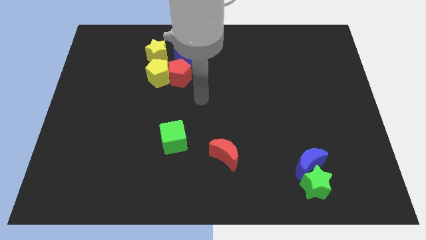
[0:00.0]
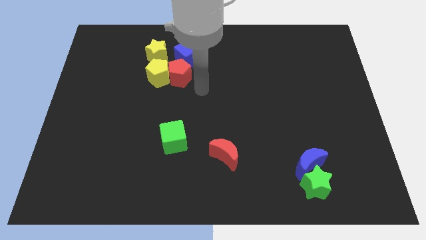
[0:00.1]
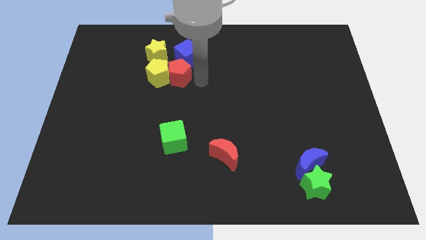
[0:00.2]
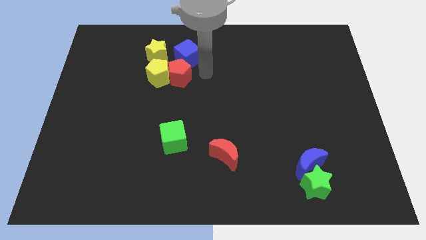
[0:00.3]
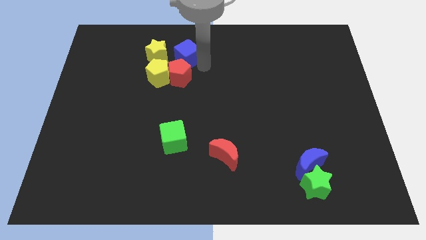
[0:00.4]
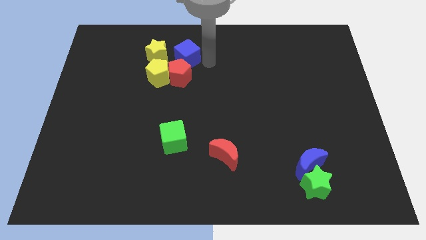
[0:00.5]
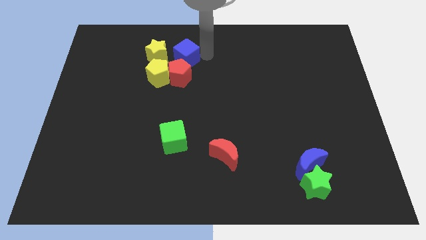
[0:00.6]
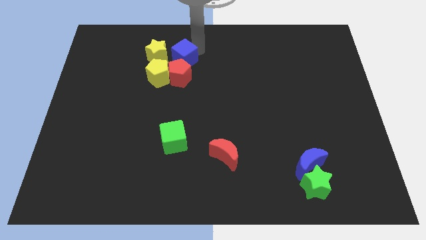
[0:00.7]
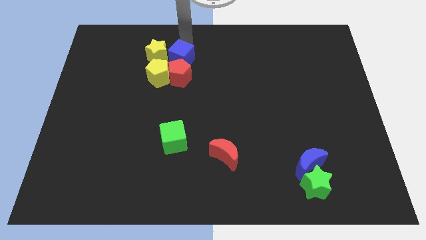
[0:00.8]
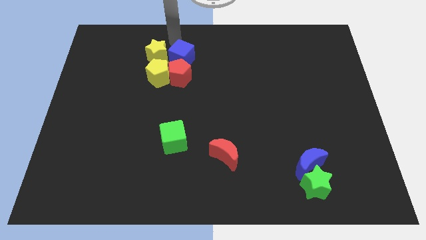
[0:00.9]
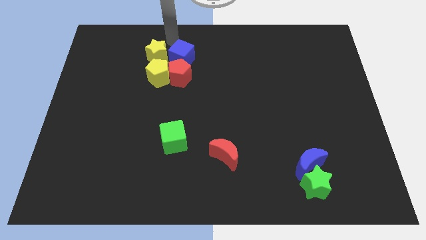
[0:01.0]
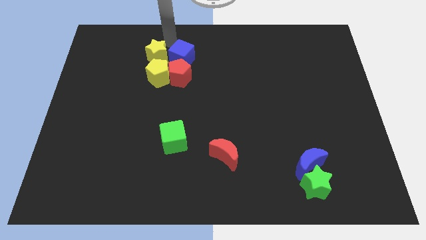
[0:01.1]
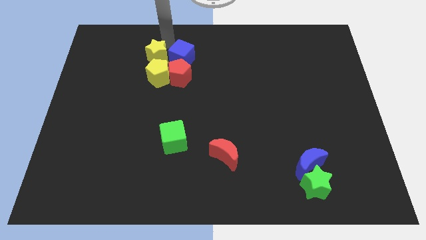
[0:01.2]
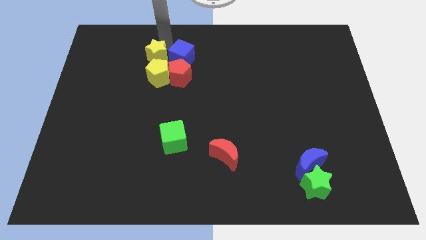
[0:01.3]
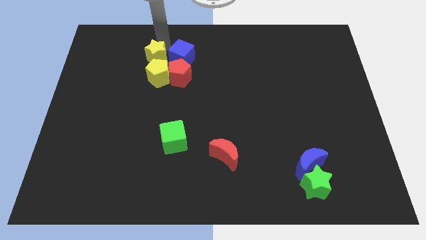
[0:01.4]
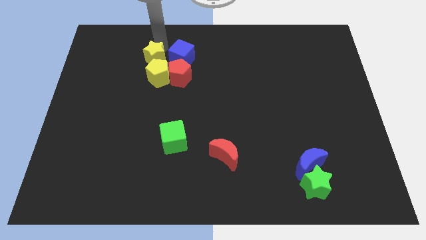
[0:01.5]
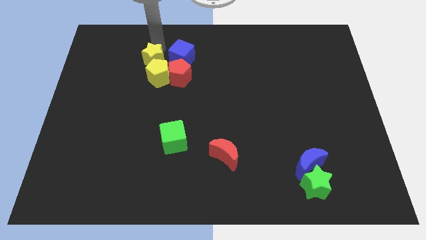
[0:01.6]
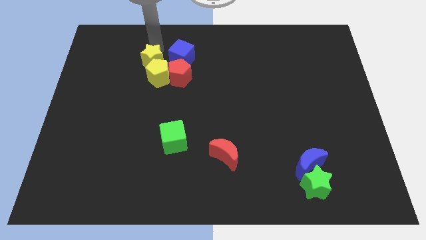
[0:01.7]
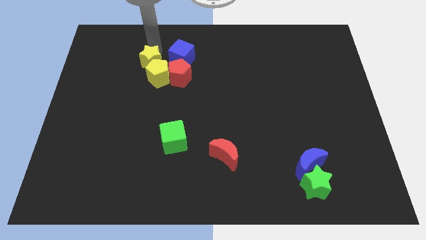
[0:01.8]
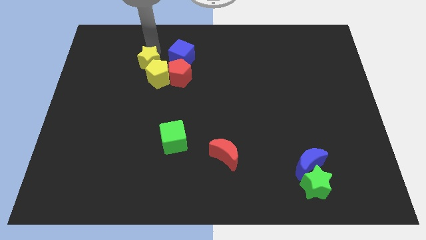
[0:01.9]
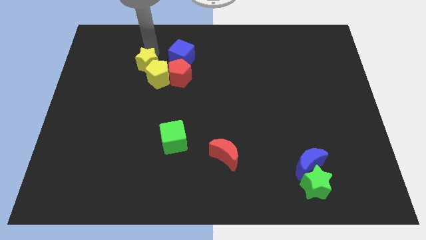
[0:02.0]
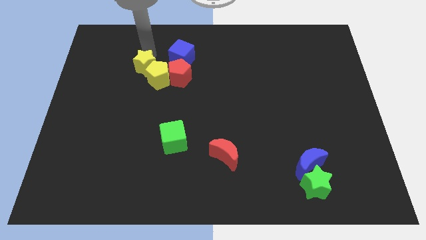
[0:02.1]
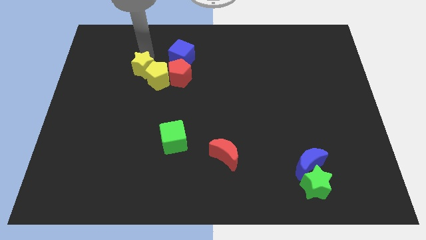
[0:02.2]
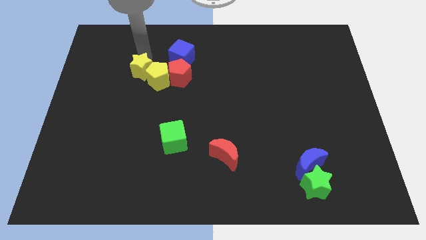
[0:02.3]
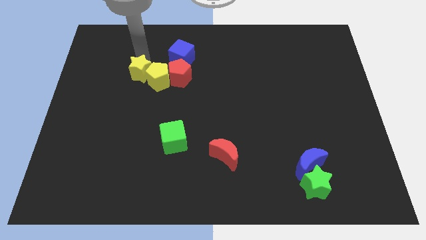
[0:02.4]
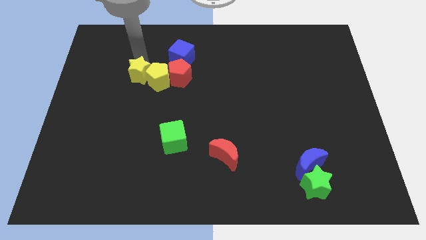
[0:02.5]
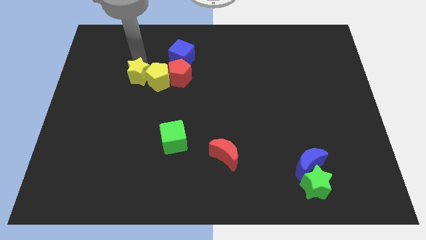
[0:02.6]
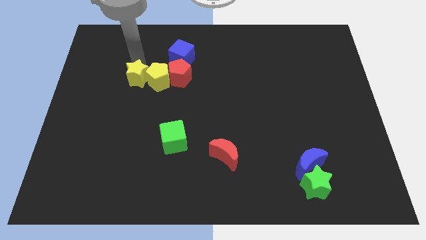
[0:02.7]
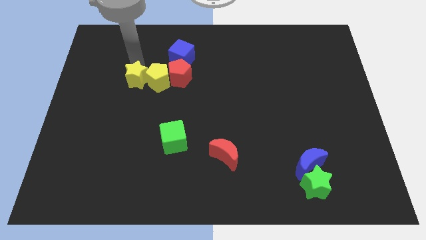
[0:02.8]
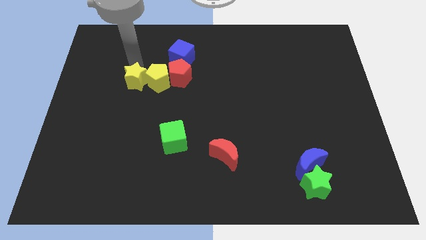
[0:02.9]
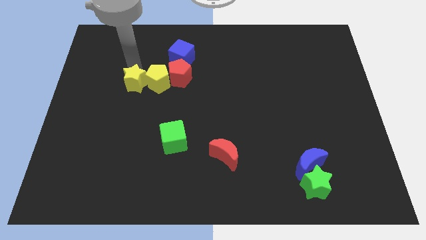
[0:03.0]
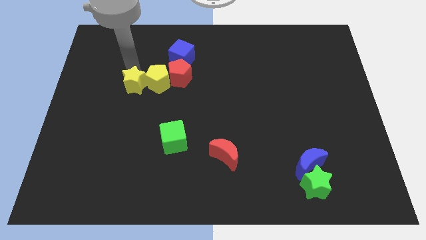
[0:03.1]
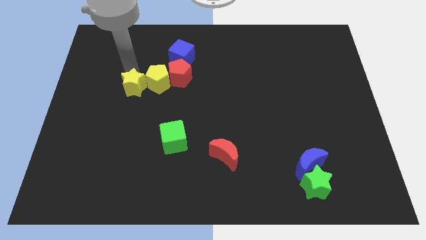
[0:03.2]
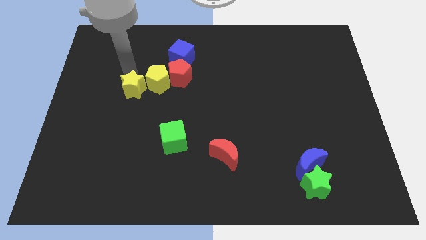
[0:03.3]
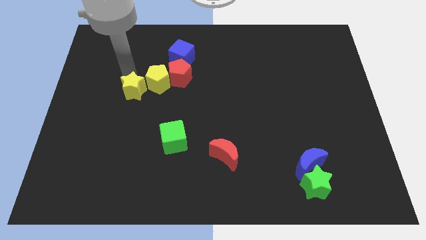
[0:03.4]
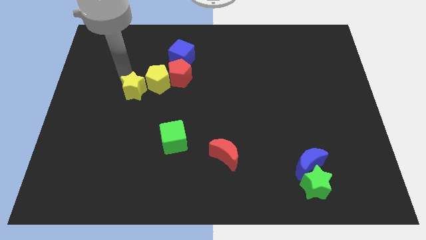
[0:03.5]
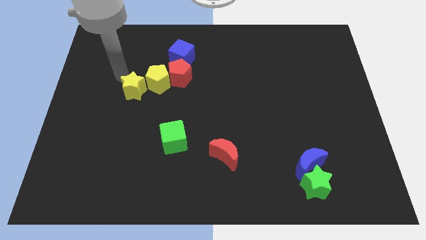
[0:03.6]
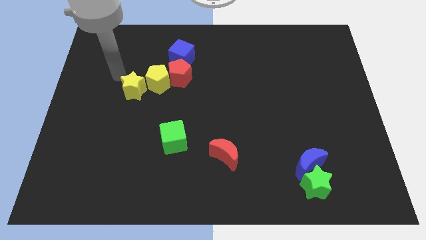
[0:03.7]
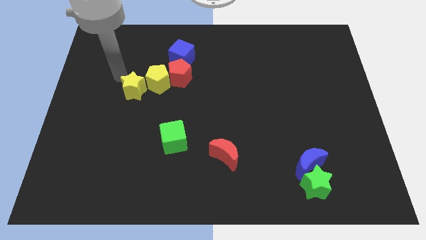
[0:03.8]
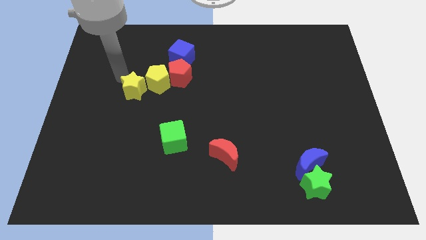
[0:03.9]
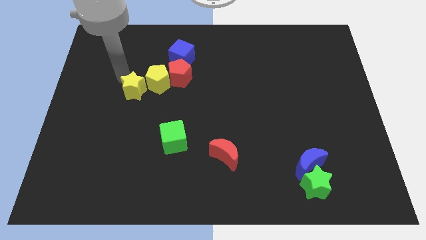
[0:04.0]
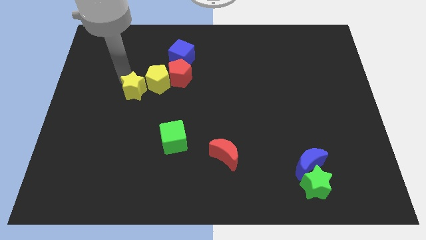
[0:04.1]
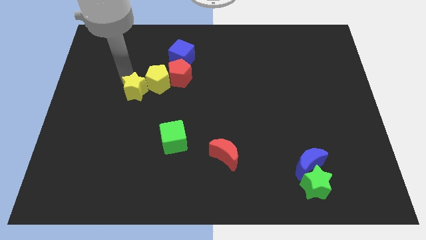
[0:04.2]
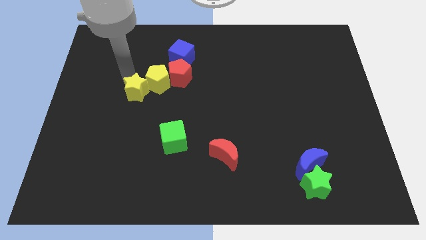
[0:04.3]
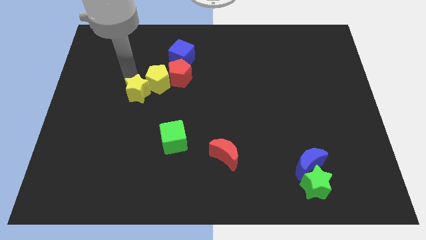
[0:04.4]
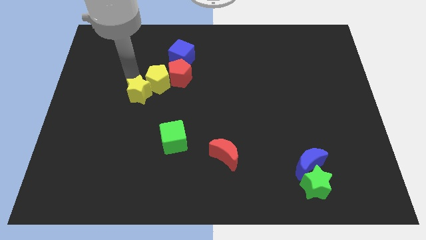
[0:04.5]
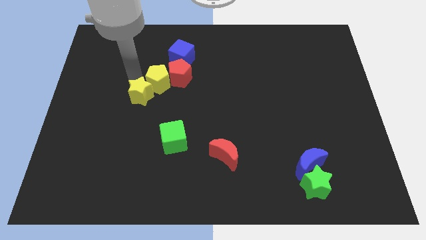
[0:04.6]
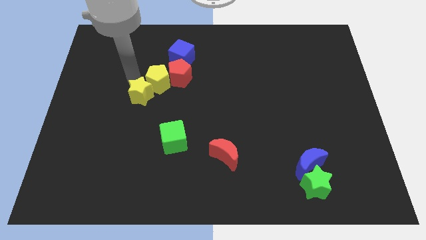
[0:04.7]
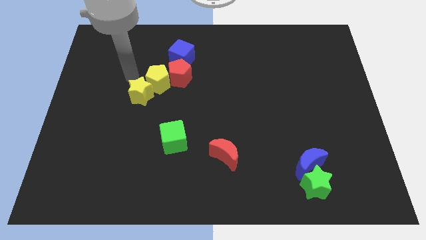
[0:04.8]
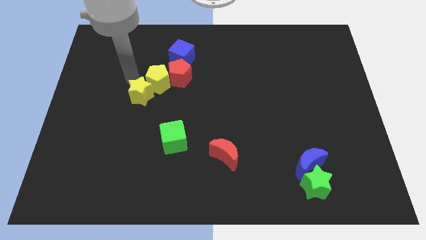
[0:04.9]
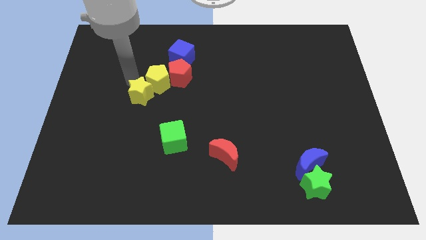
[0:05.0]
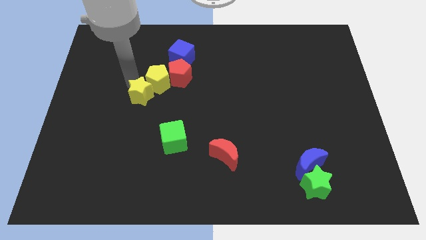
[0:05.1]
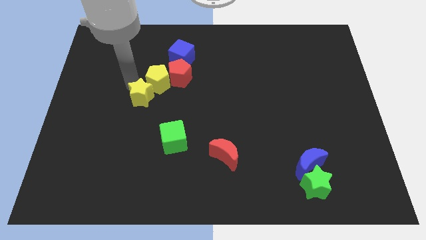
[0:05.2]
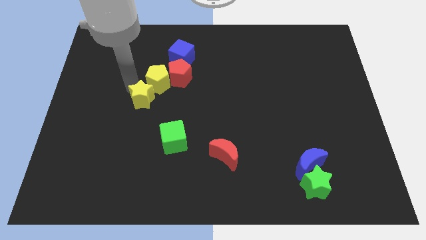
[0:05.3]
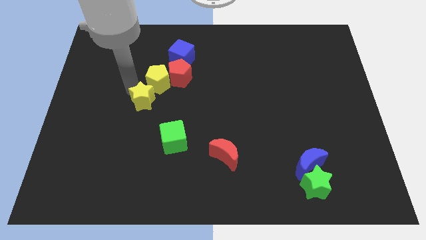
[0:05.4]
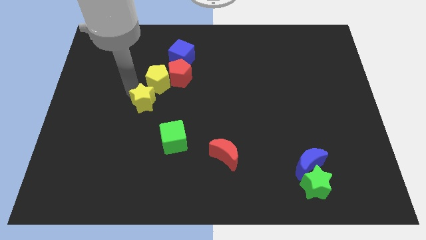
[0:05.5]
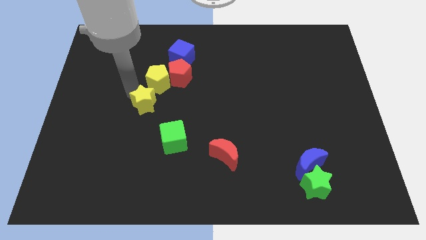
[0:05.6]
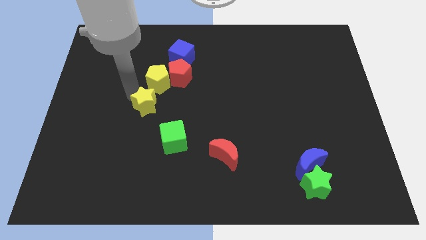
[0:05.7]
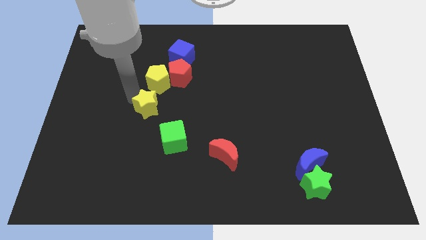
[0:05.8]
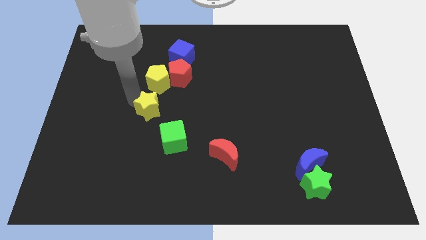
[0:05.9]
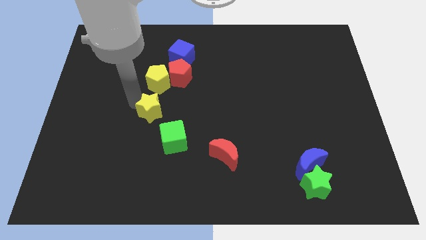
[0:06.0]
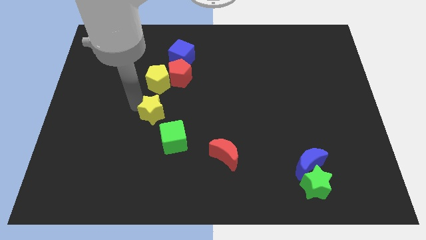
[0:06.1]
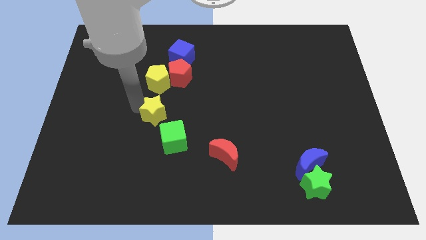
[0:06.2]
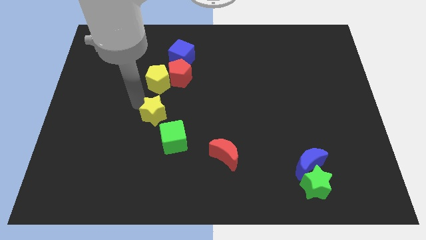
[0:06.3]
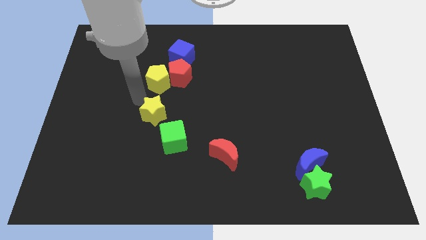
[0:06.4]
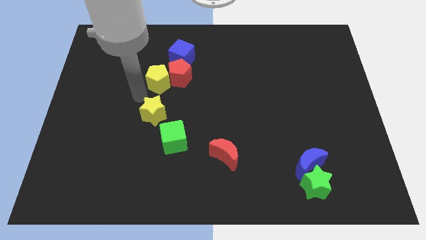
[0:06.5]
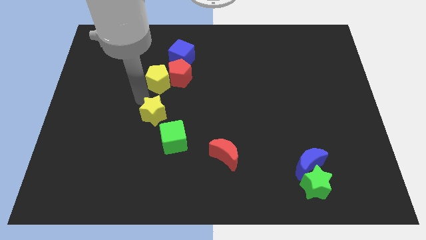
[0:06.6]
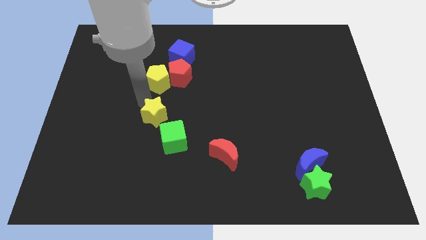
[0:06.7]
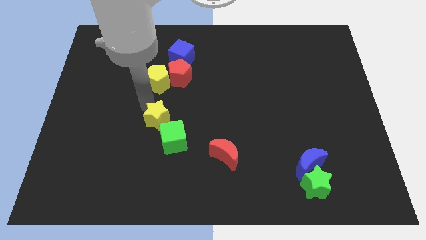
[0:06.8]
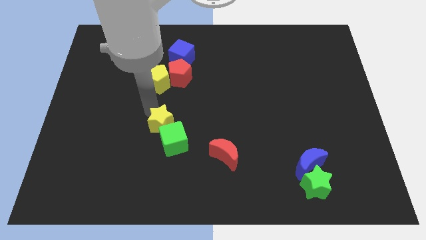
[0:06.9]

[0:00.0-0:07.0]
put the yellow star towards the green cube

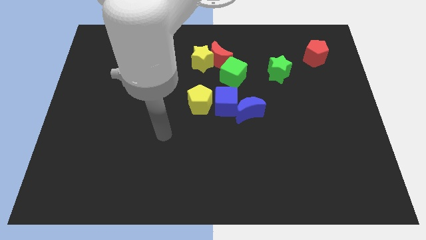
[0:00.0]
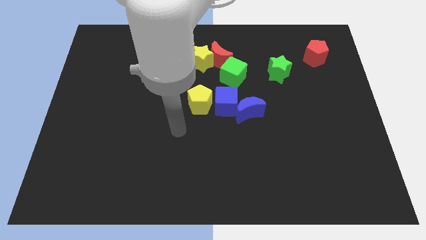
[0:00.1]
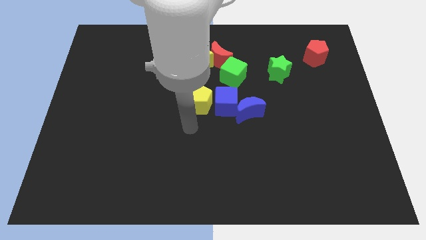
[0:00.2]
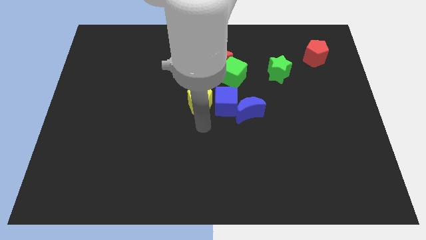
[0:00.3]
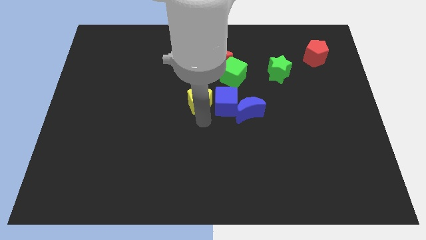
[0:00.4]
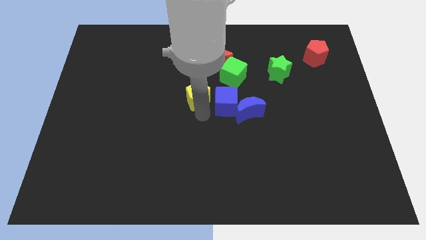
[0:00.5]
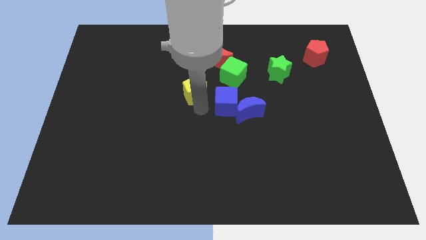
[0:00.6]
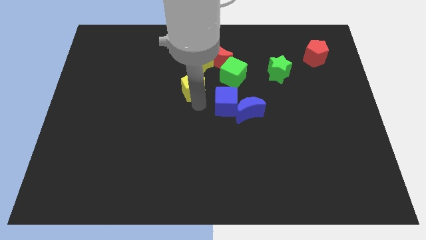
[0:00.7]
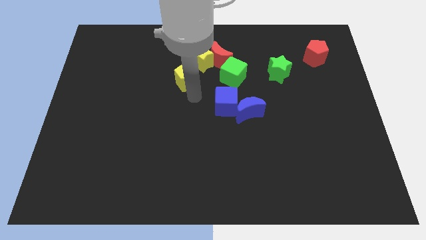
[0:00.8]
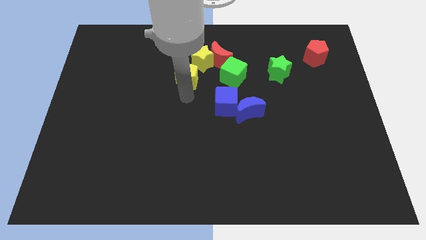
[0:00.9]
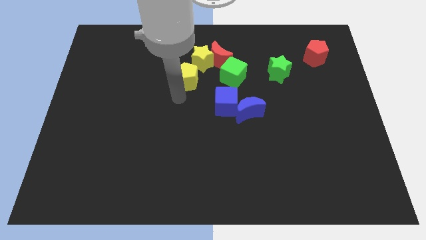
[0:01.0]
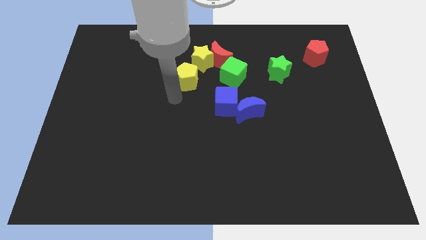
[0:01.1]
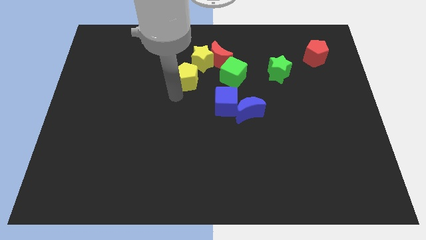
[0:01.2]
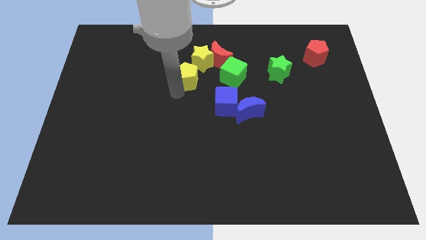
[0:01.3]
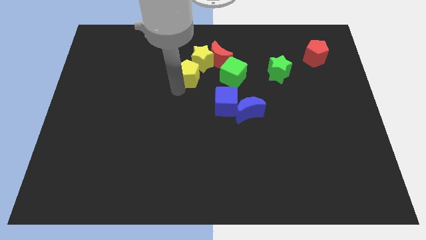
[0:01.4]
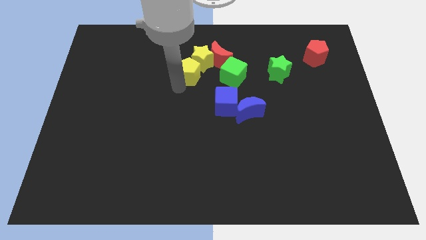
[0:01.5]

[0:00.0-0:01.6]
push the yellow pentagon to the yellow star
